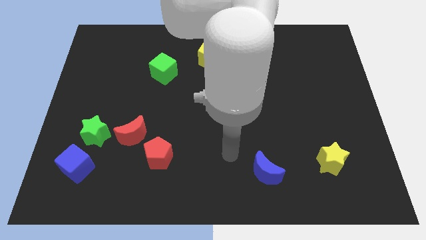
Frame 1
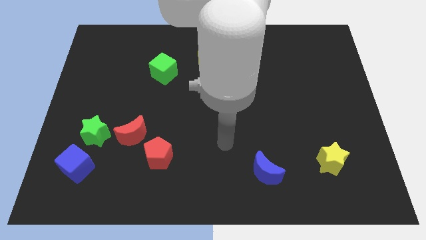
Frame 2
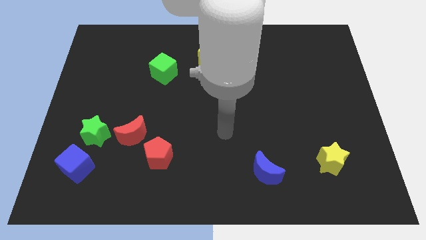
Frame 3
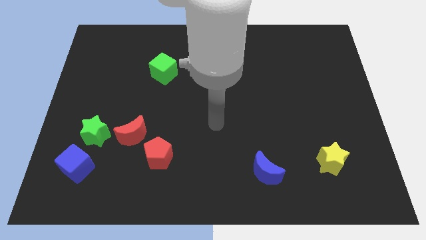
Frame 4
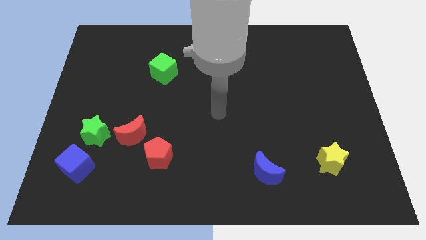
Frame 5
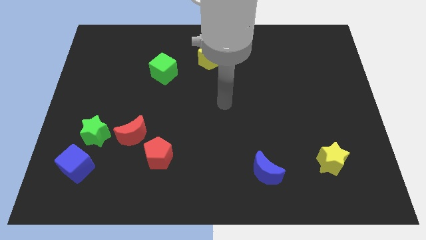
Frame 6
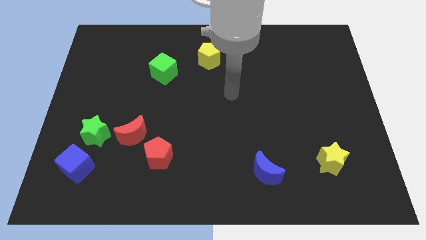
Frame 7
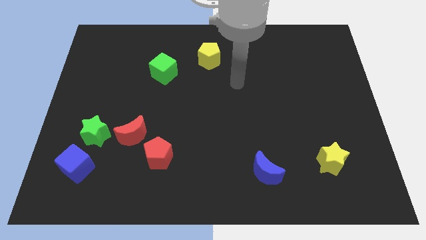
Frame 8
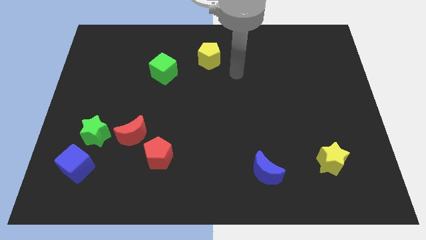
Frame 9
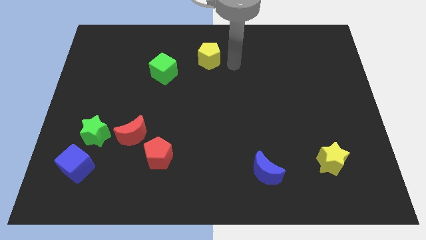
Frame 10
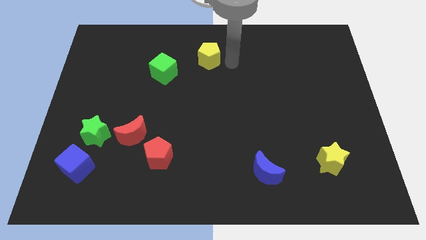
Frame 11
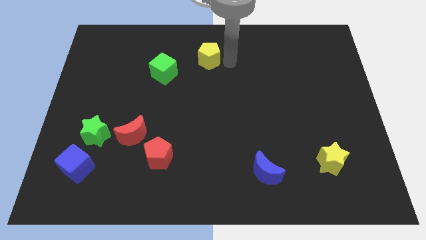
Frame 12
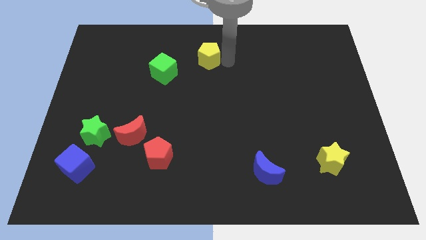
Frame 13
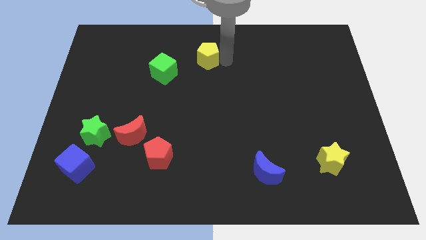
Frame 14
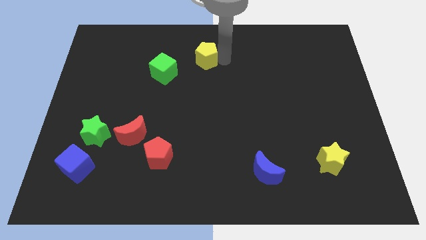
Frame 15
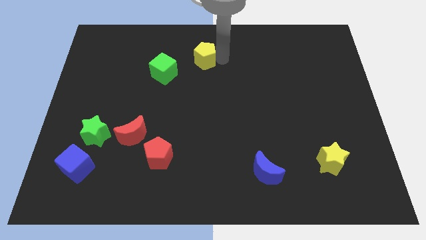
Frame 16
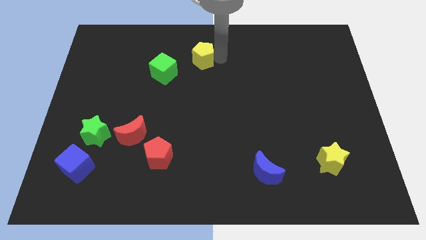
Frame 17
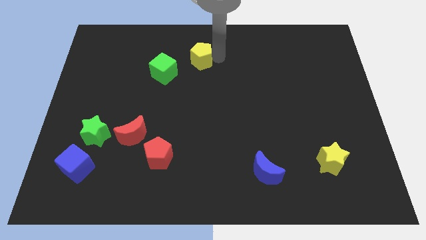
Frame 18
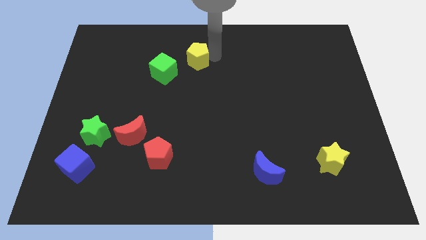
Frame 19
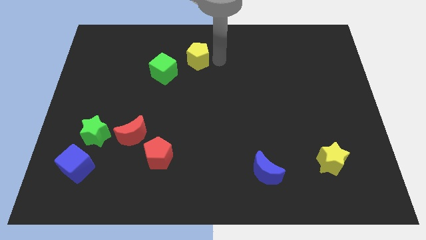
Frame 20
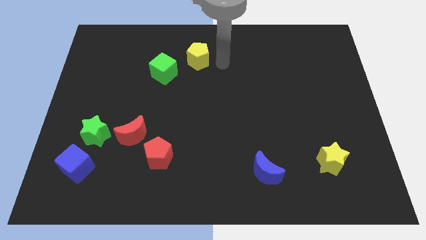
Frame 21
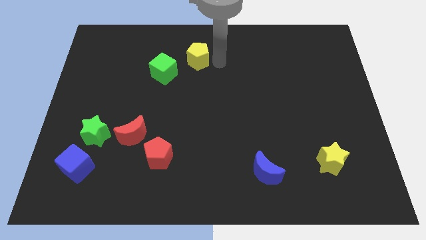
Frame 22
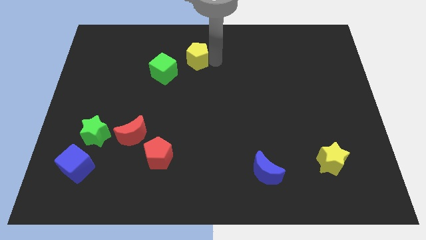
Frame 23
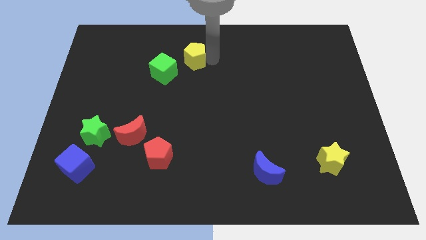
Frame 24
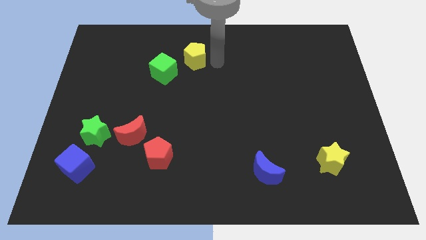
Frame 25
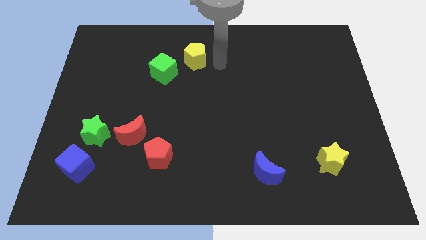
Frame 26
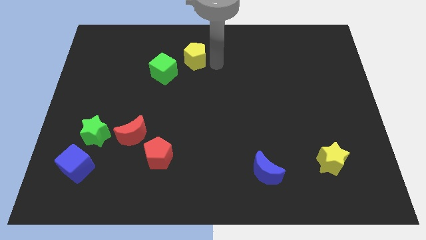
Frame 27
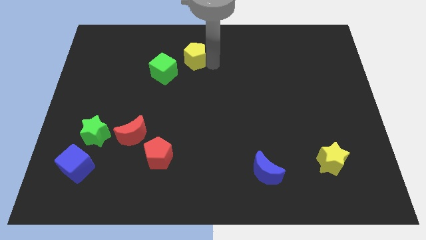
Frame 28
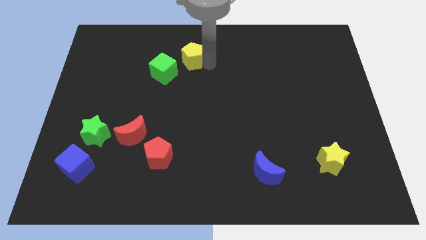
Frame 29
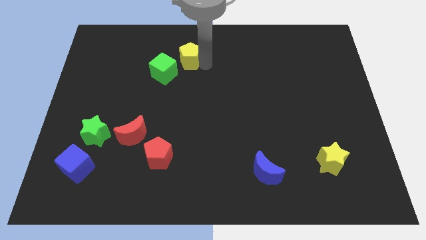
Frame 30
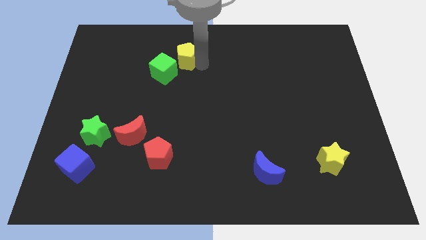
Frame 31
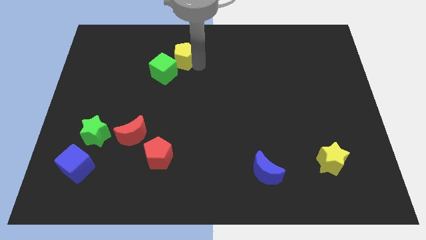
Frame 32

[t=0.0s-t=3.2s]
push the yellow pentagon a little to the left

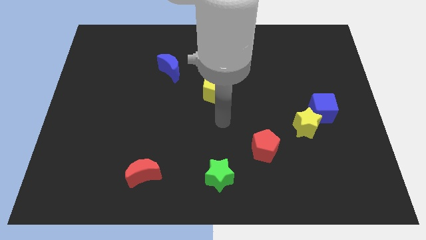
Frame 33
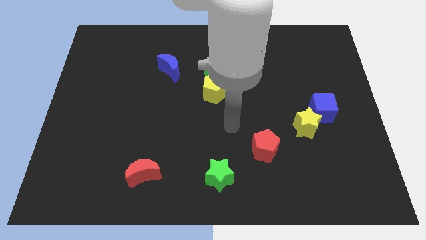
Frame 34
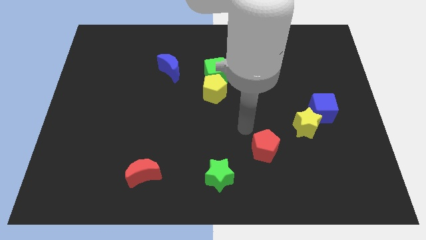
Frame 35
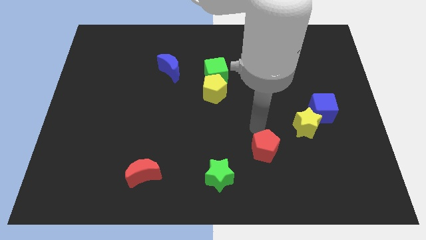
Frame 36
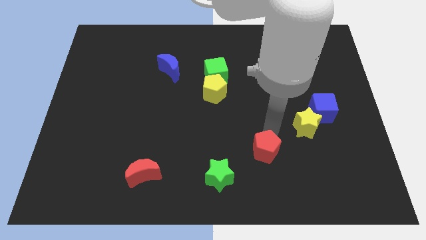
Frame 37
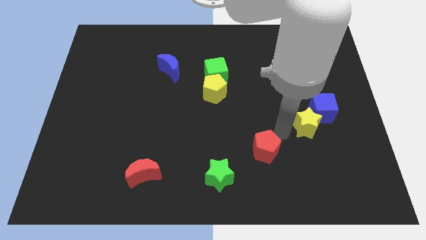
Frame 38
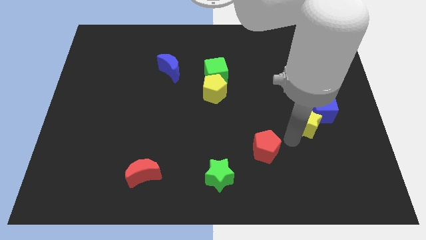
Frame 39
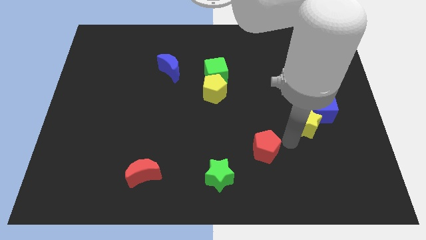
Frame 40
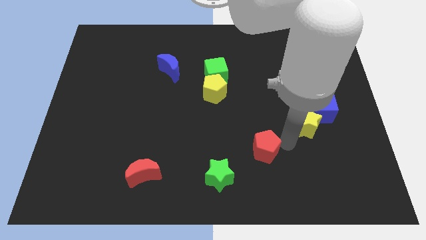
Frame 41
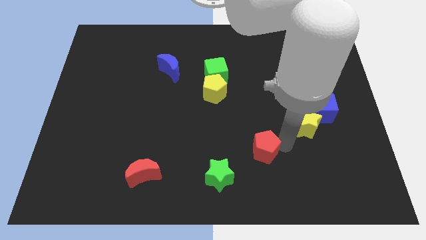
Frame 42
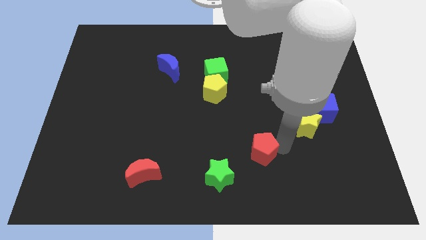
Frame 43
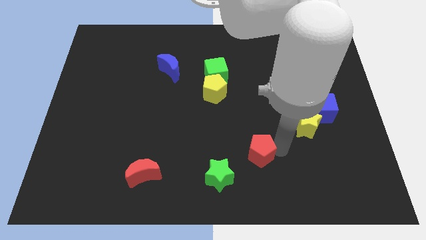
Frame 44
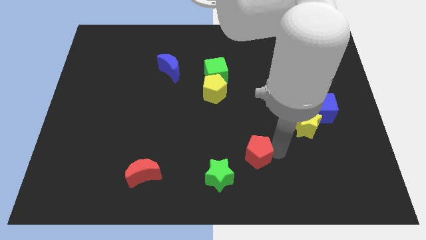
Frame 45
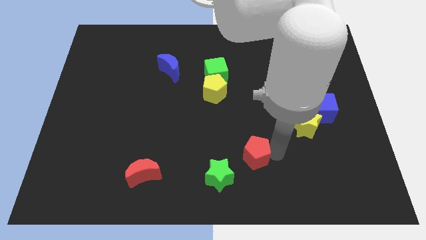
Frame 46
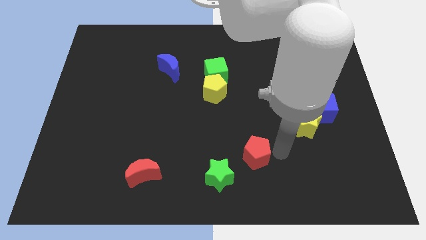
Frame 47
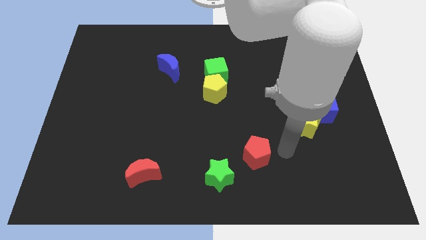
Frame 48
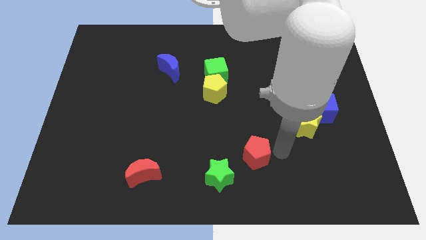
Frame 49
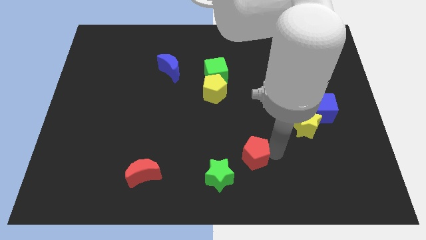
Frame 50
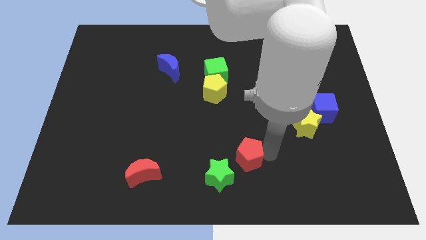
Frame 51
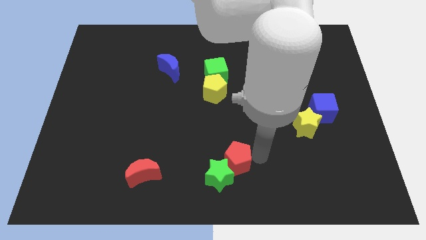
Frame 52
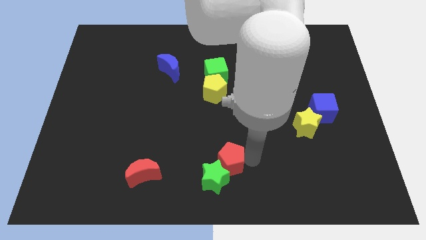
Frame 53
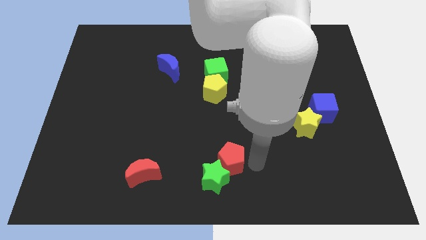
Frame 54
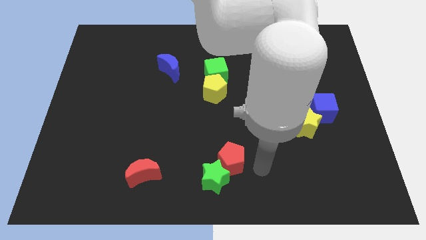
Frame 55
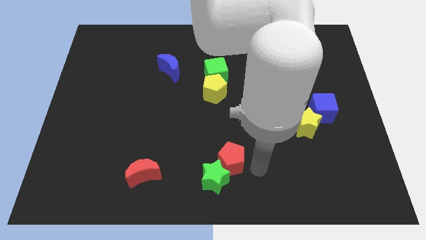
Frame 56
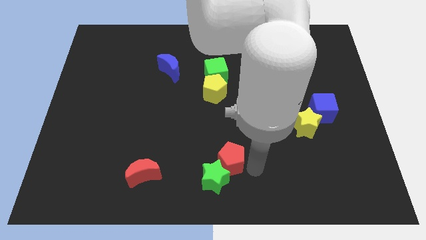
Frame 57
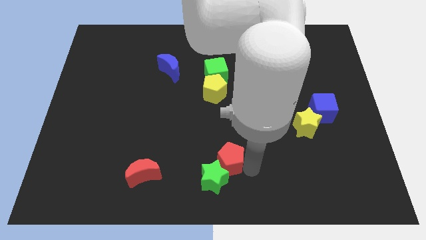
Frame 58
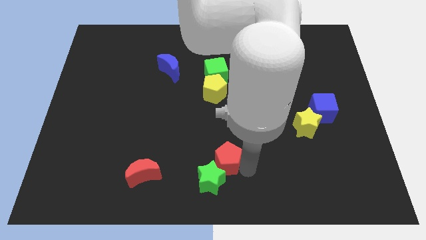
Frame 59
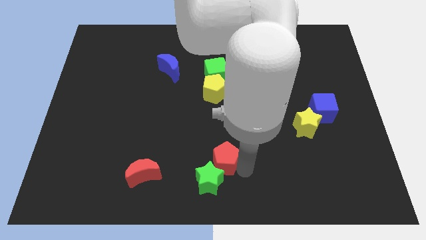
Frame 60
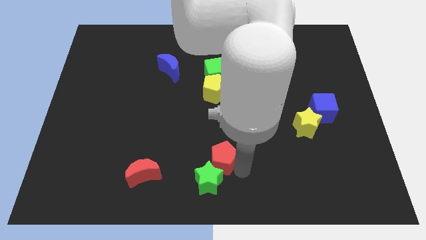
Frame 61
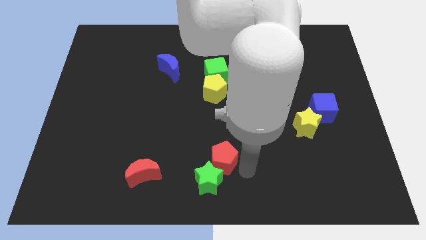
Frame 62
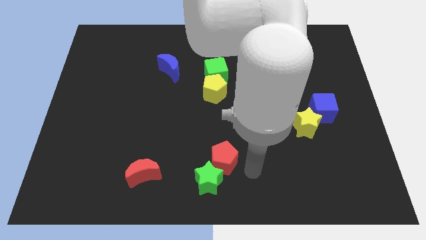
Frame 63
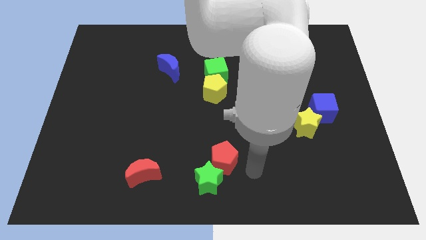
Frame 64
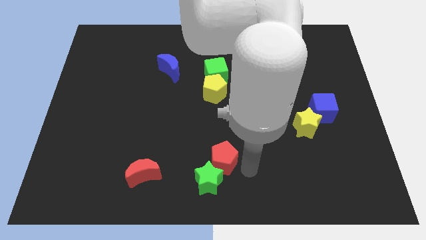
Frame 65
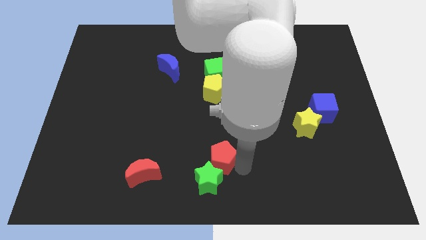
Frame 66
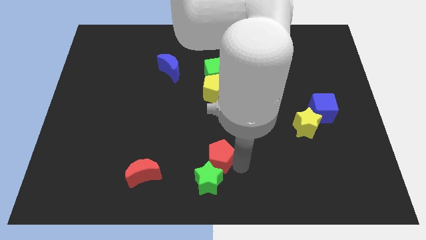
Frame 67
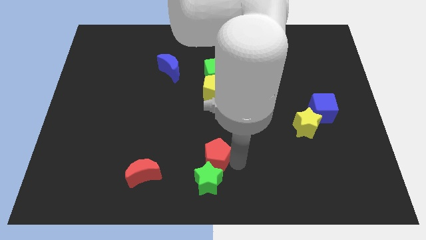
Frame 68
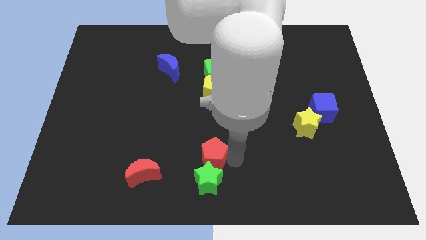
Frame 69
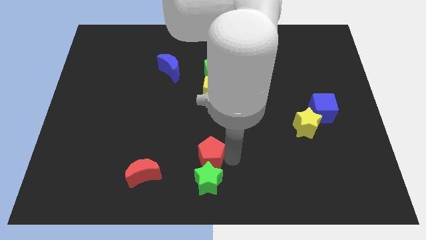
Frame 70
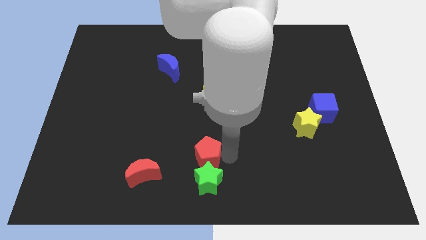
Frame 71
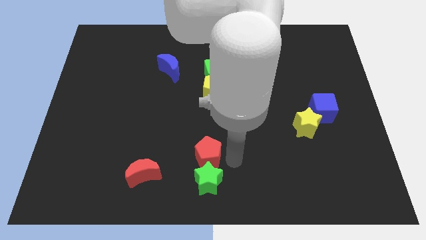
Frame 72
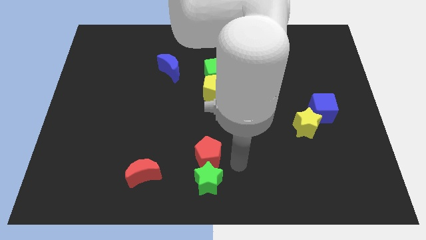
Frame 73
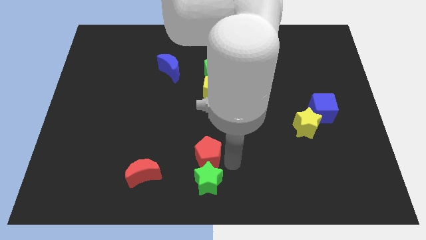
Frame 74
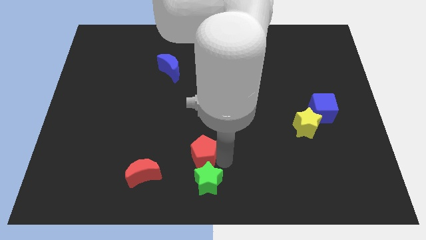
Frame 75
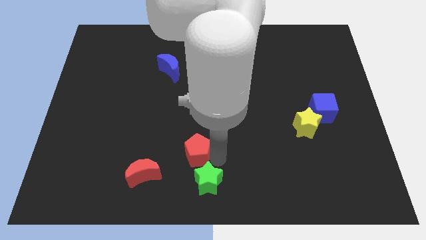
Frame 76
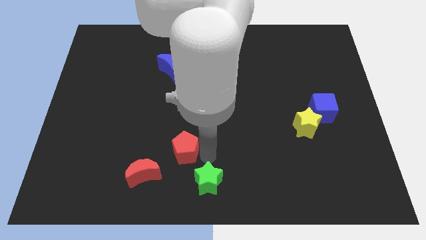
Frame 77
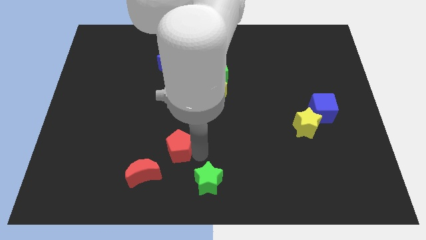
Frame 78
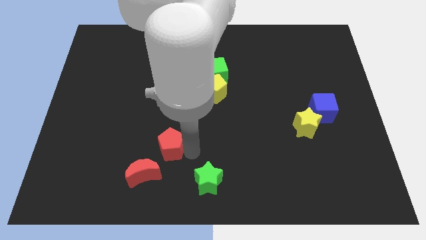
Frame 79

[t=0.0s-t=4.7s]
move the red pentagon left

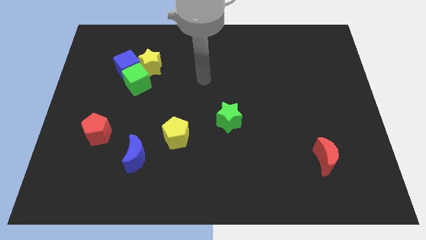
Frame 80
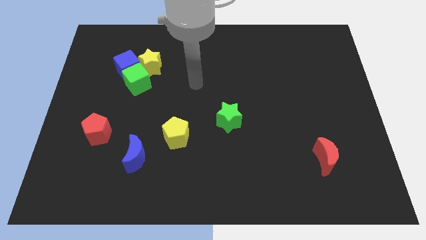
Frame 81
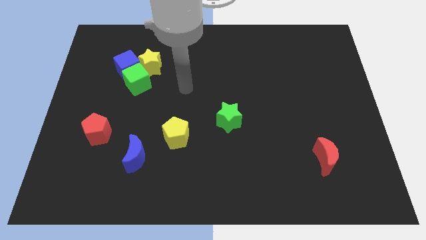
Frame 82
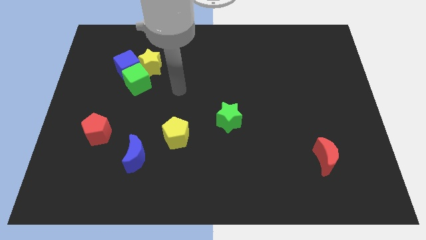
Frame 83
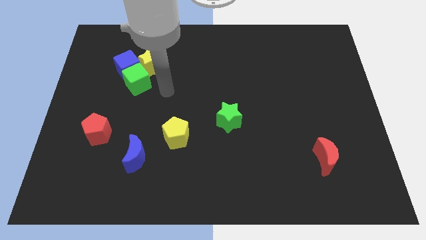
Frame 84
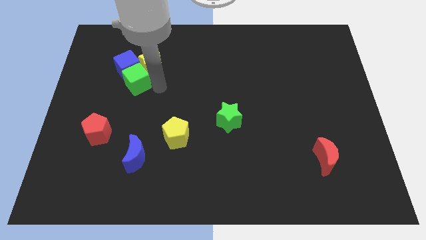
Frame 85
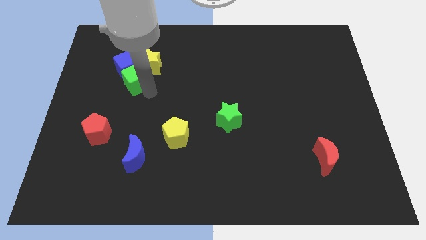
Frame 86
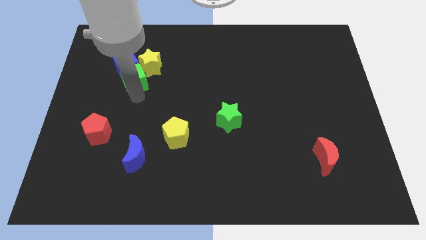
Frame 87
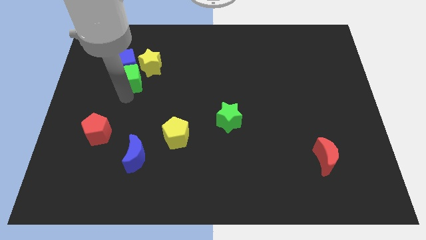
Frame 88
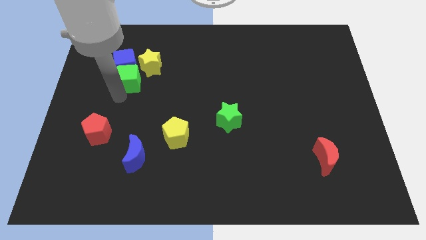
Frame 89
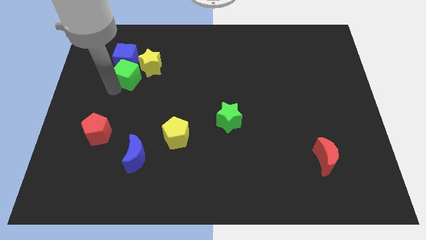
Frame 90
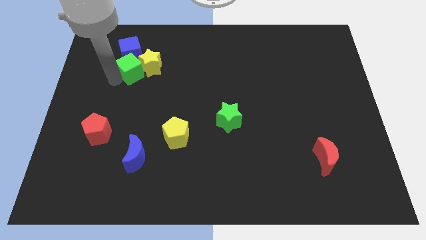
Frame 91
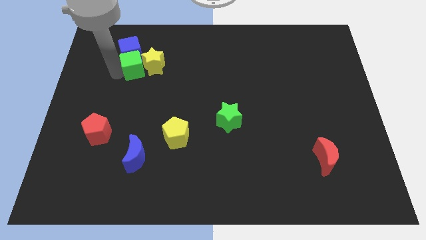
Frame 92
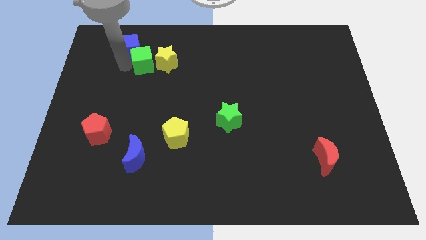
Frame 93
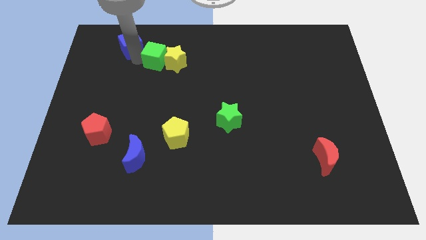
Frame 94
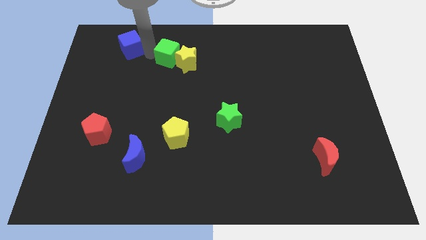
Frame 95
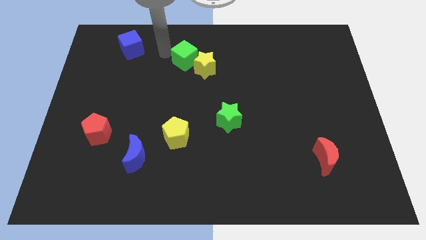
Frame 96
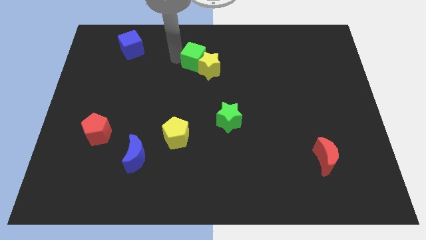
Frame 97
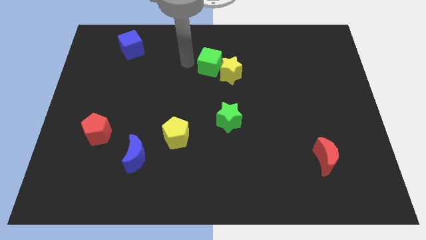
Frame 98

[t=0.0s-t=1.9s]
push the yellow star to the right
